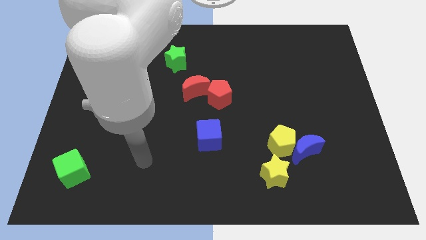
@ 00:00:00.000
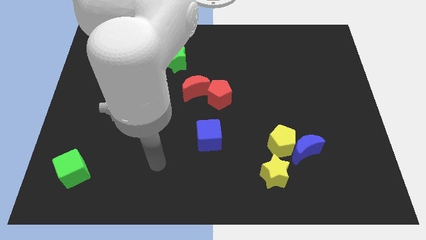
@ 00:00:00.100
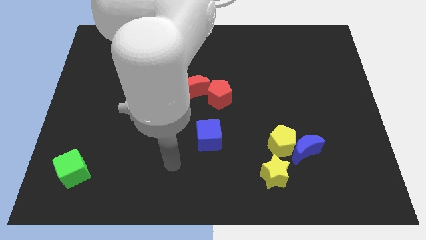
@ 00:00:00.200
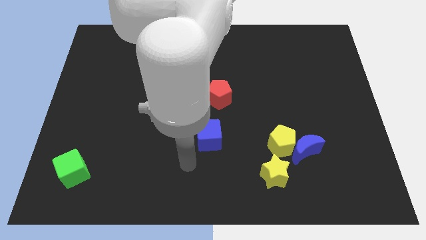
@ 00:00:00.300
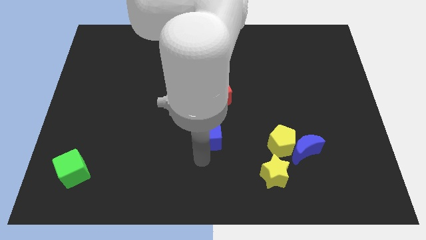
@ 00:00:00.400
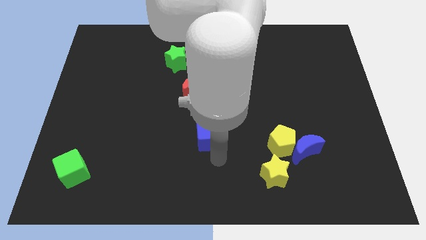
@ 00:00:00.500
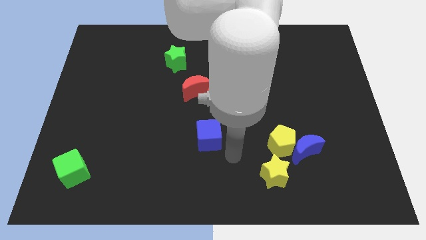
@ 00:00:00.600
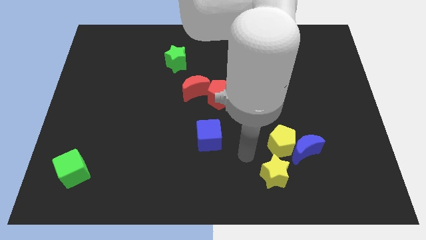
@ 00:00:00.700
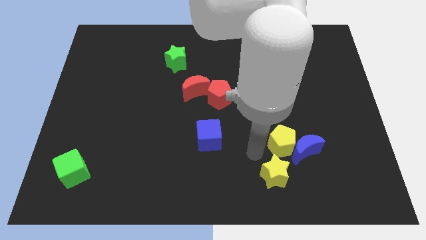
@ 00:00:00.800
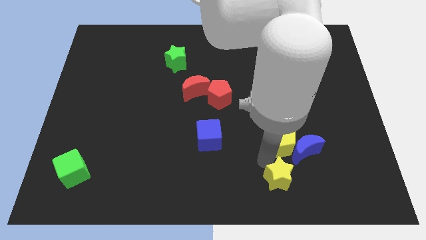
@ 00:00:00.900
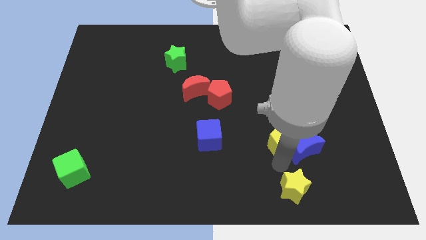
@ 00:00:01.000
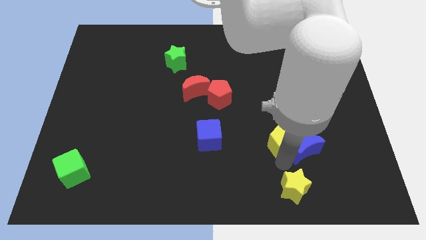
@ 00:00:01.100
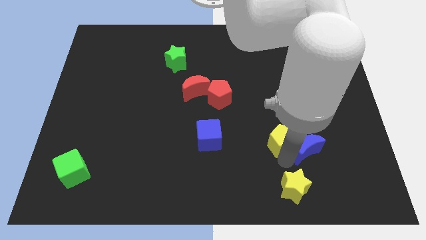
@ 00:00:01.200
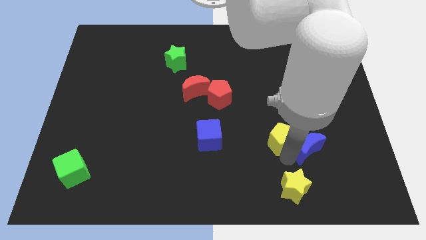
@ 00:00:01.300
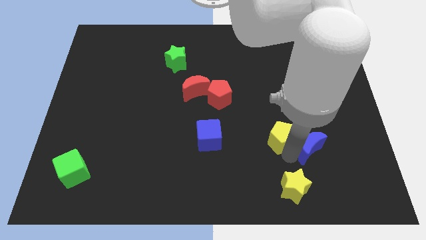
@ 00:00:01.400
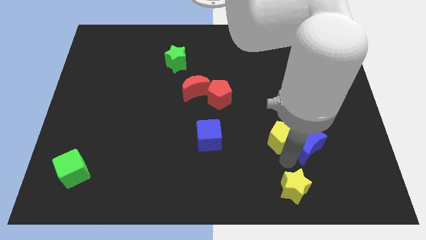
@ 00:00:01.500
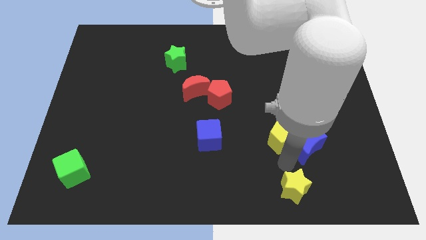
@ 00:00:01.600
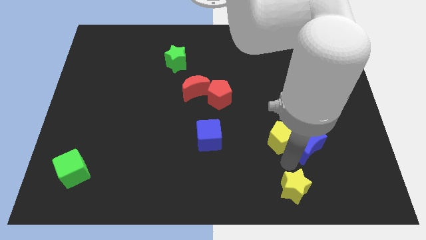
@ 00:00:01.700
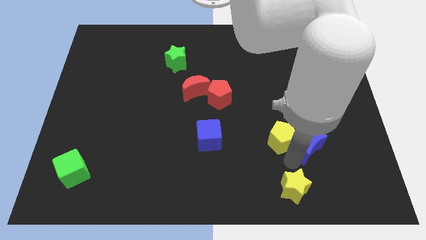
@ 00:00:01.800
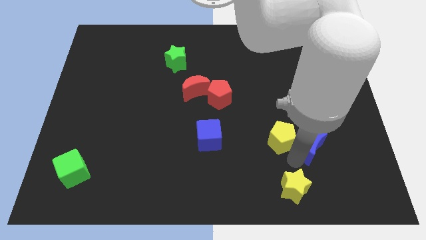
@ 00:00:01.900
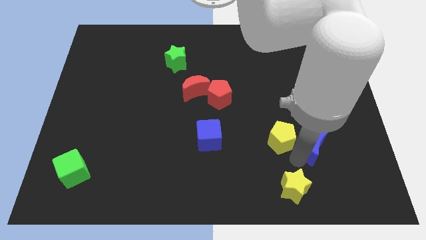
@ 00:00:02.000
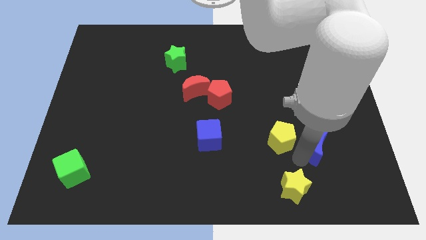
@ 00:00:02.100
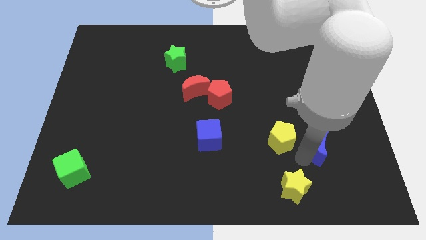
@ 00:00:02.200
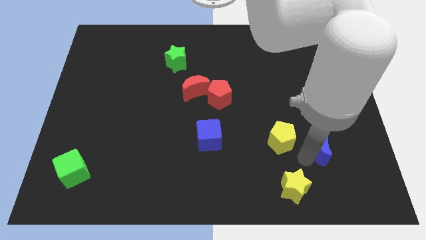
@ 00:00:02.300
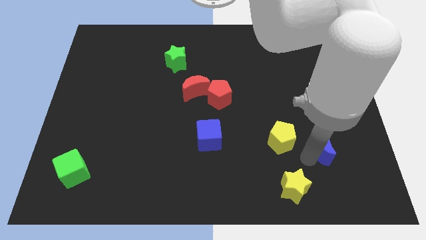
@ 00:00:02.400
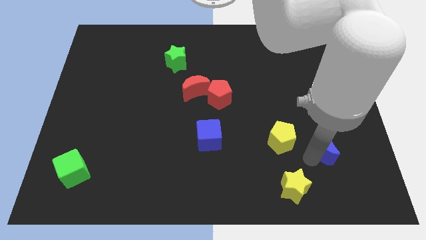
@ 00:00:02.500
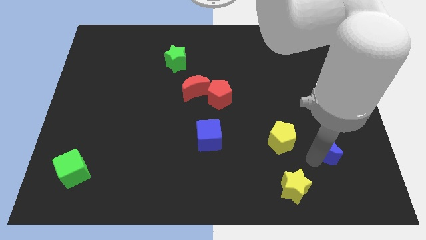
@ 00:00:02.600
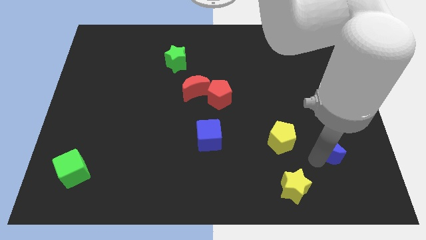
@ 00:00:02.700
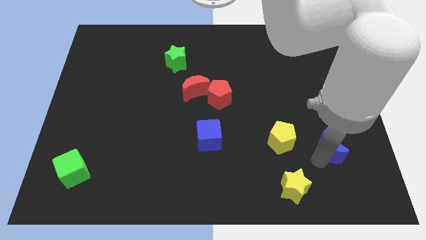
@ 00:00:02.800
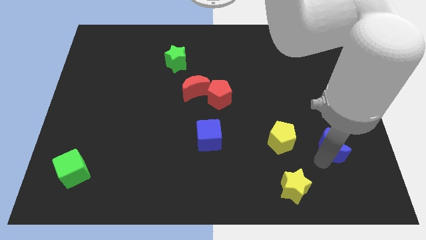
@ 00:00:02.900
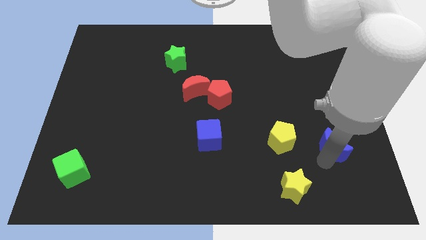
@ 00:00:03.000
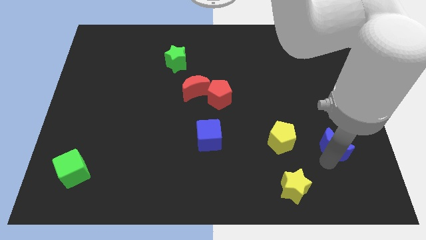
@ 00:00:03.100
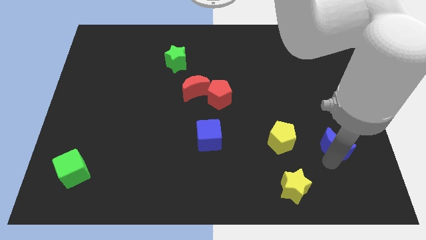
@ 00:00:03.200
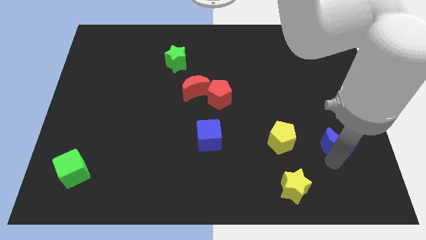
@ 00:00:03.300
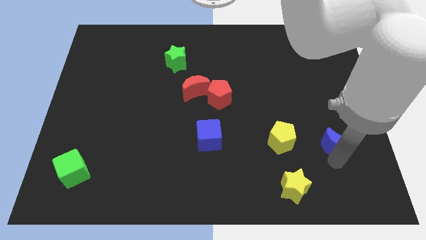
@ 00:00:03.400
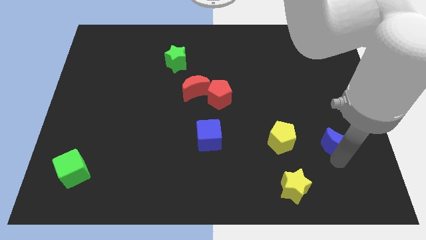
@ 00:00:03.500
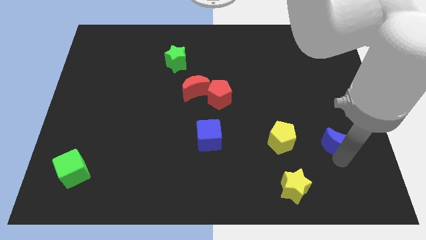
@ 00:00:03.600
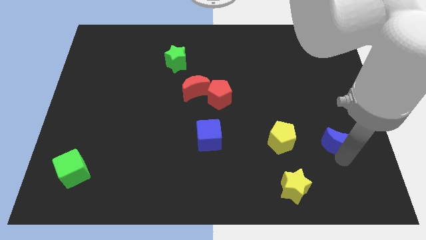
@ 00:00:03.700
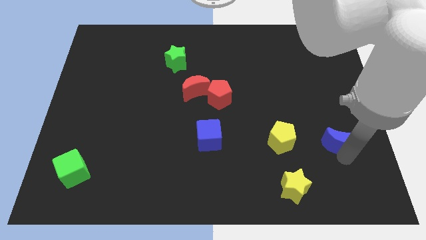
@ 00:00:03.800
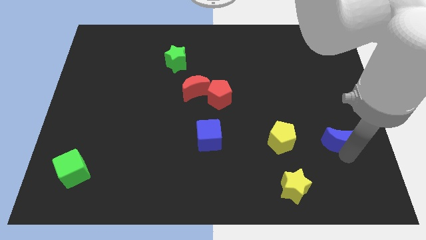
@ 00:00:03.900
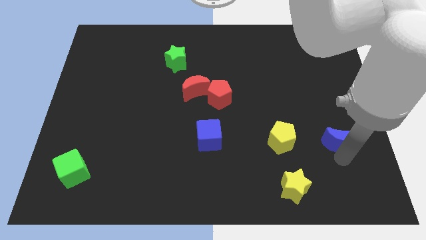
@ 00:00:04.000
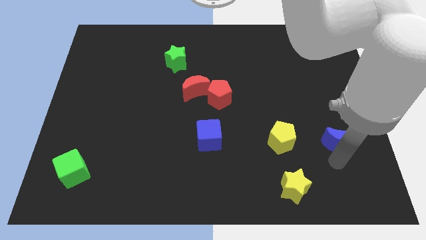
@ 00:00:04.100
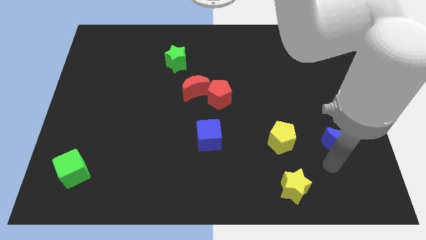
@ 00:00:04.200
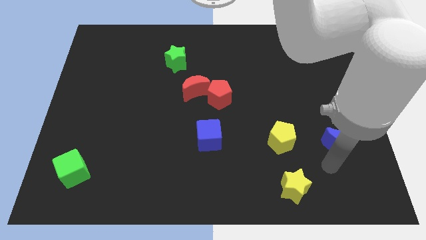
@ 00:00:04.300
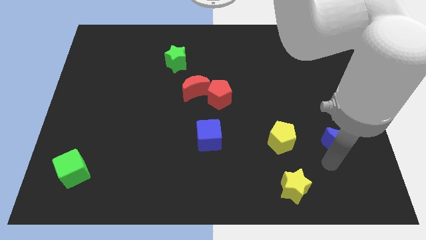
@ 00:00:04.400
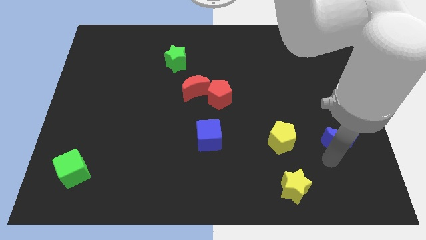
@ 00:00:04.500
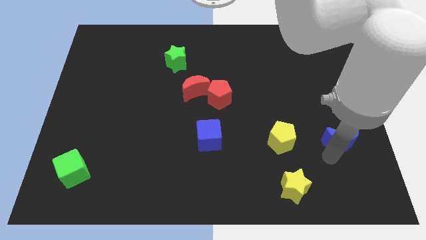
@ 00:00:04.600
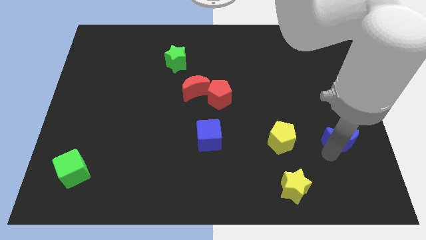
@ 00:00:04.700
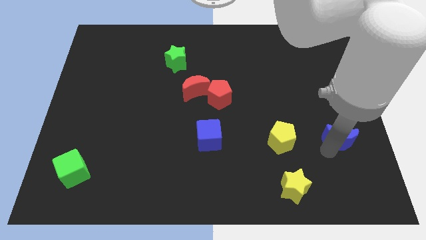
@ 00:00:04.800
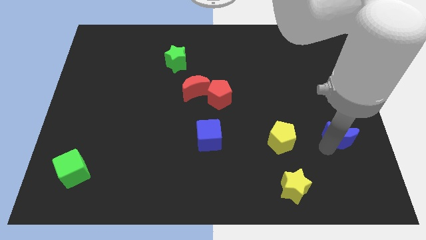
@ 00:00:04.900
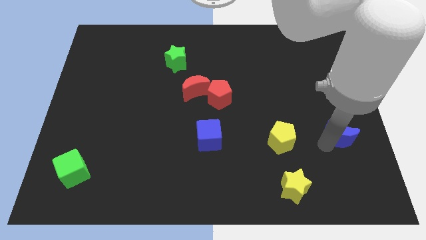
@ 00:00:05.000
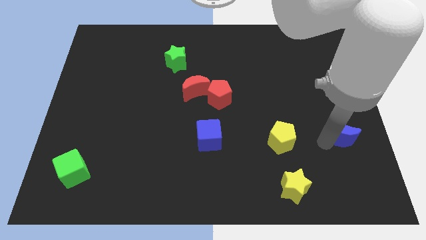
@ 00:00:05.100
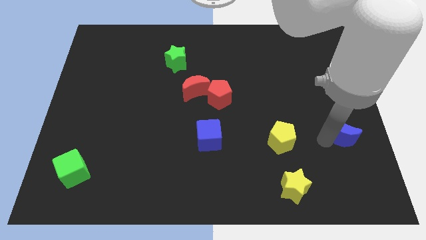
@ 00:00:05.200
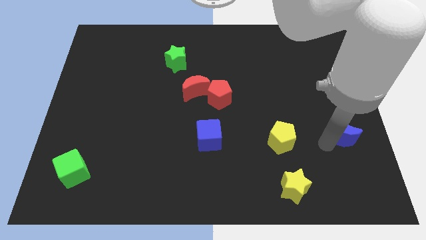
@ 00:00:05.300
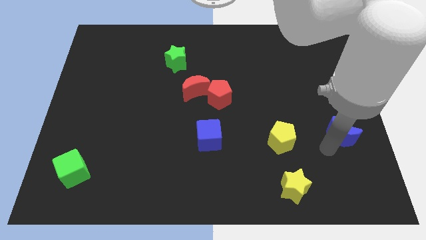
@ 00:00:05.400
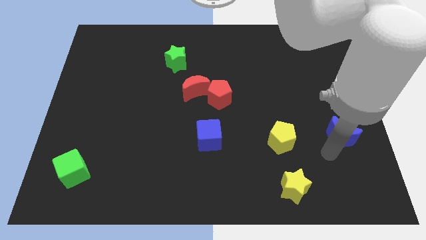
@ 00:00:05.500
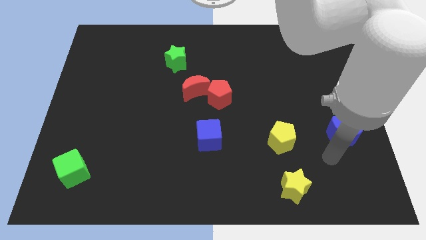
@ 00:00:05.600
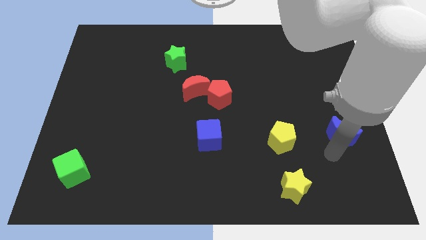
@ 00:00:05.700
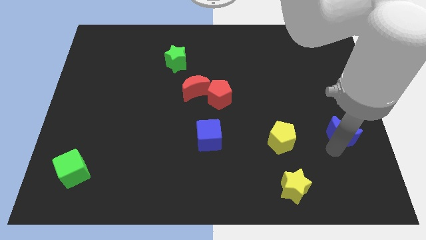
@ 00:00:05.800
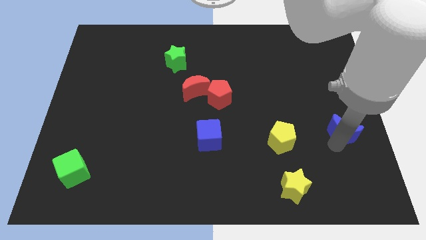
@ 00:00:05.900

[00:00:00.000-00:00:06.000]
put the blue moon to the right side of the board

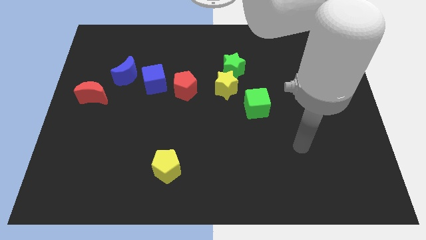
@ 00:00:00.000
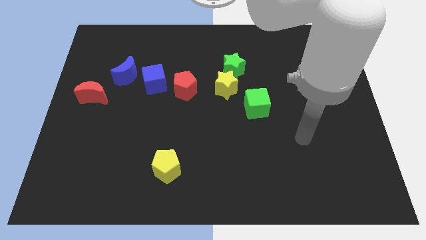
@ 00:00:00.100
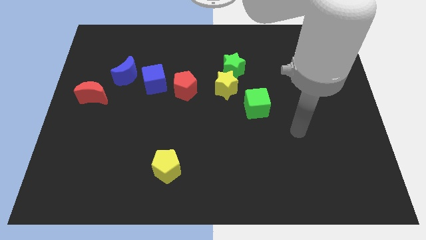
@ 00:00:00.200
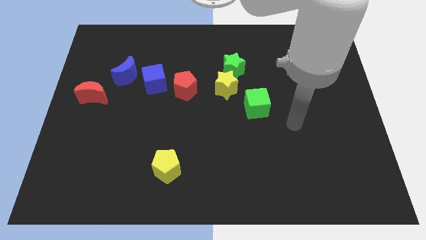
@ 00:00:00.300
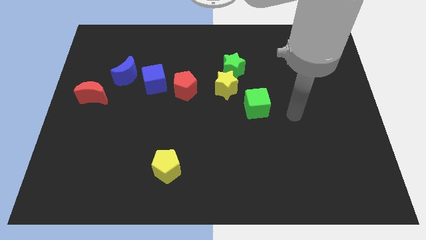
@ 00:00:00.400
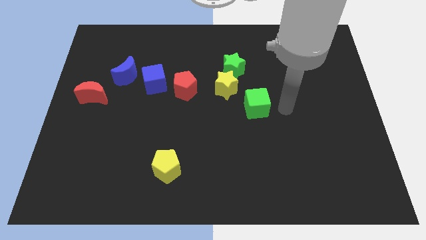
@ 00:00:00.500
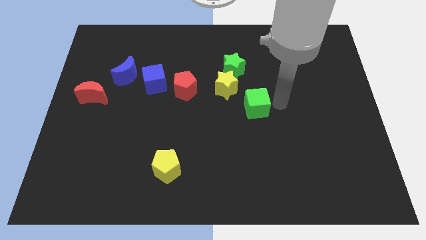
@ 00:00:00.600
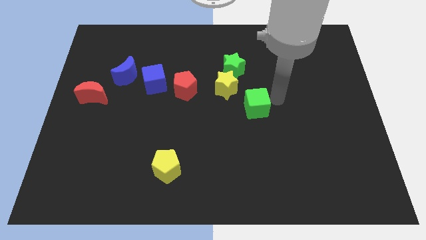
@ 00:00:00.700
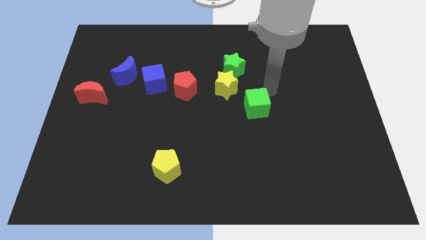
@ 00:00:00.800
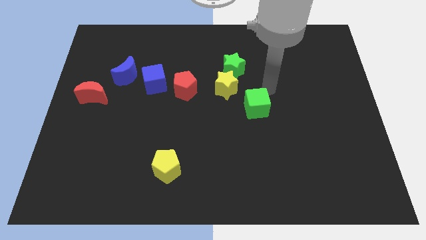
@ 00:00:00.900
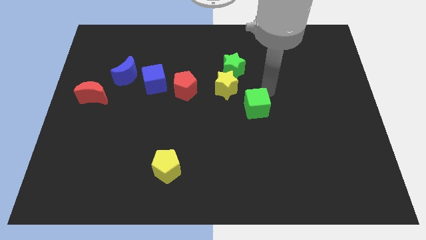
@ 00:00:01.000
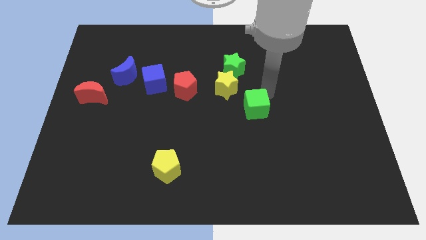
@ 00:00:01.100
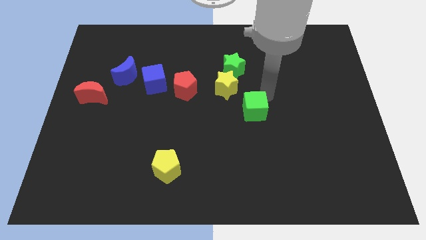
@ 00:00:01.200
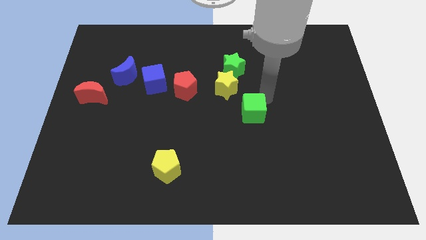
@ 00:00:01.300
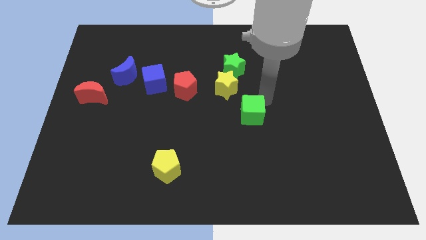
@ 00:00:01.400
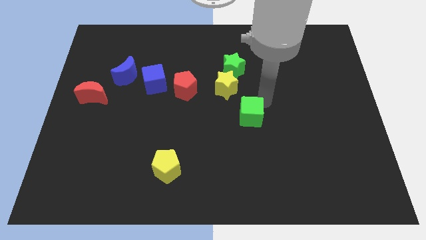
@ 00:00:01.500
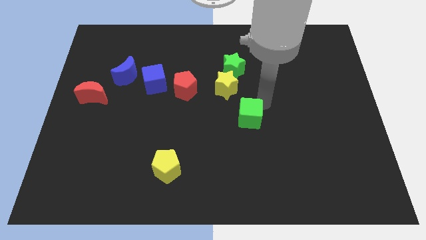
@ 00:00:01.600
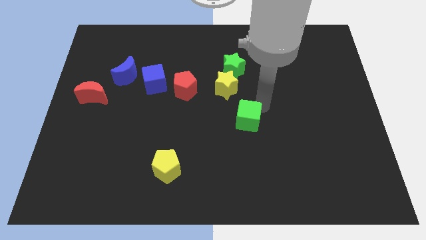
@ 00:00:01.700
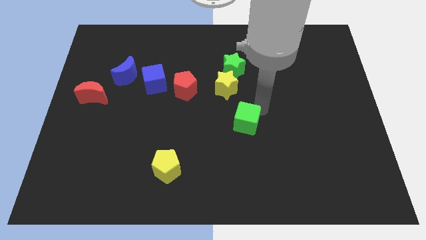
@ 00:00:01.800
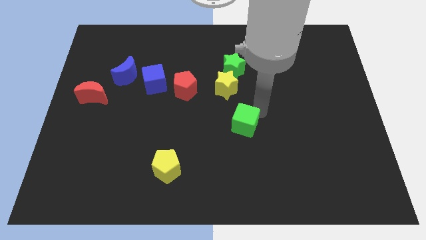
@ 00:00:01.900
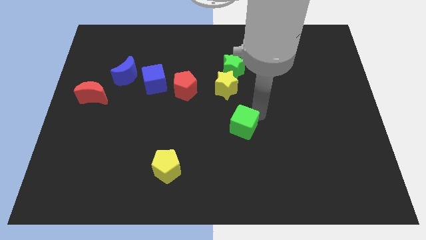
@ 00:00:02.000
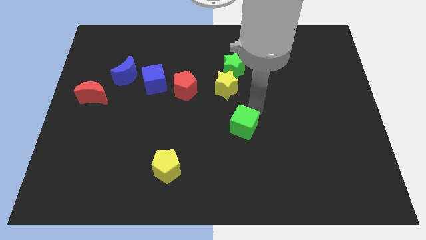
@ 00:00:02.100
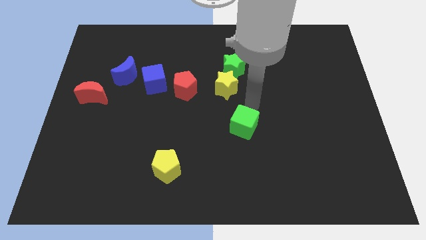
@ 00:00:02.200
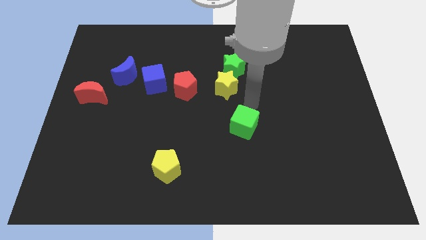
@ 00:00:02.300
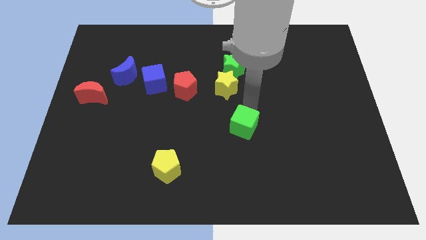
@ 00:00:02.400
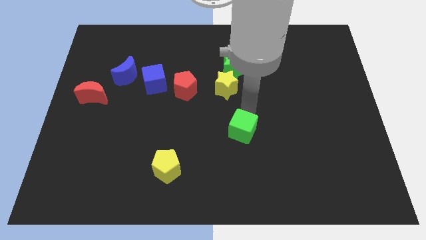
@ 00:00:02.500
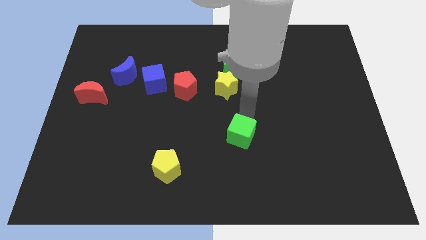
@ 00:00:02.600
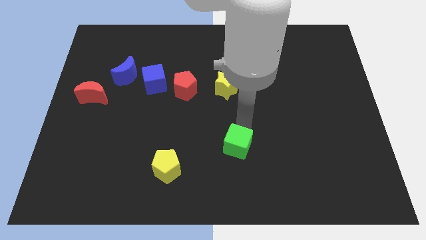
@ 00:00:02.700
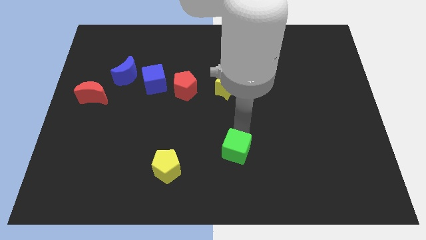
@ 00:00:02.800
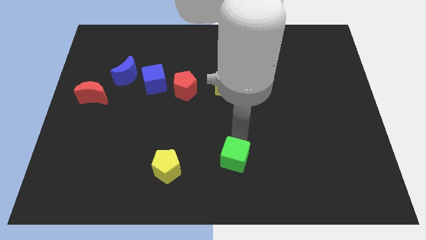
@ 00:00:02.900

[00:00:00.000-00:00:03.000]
push the green cube to the bottom
